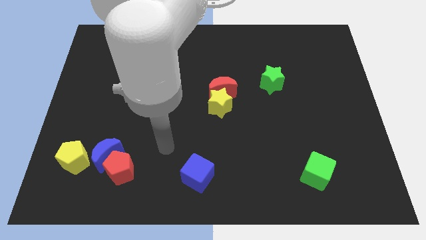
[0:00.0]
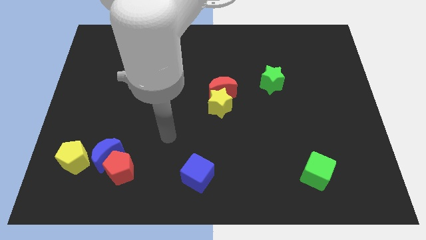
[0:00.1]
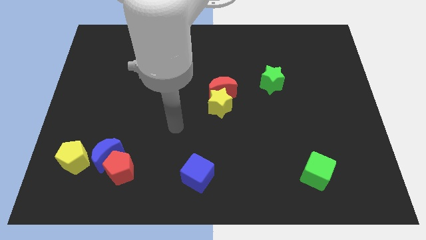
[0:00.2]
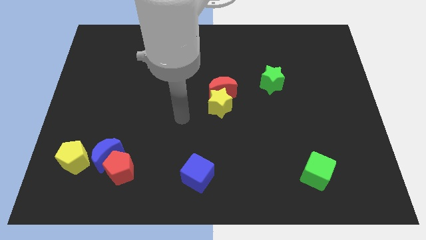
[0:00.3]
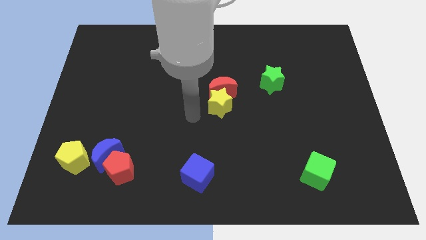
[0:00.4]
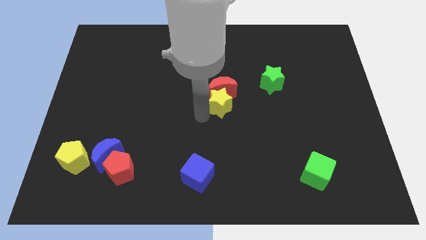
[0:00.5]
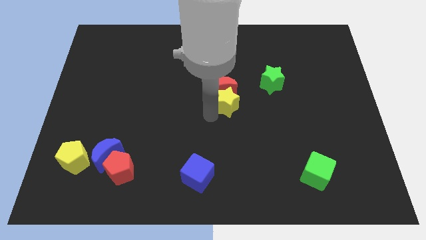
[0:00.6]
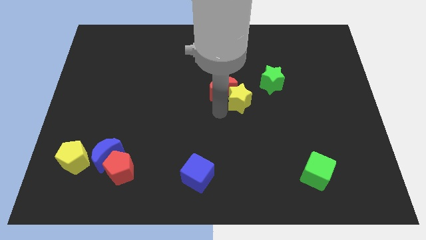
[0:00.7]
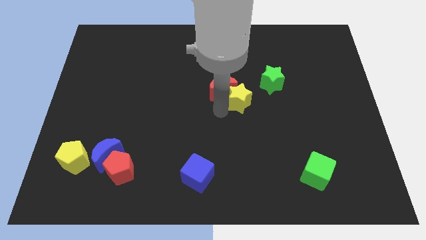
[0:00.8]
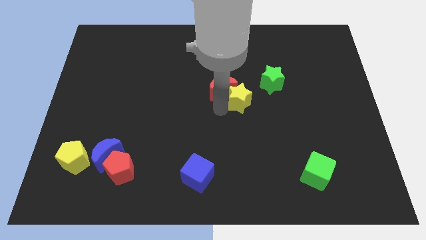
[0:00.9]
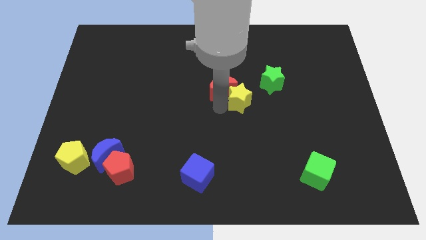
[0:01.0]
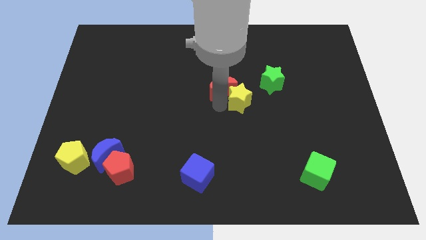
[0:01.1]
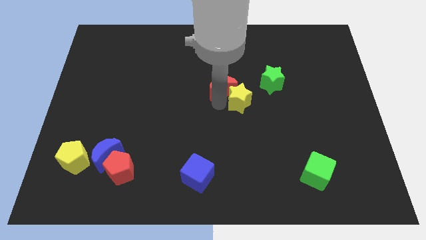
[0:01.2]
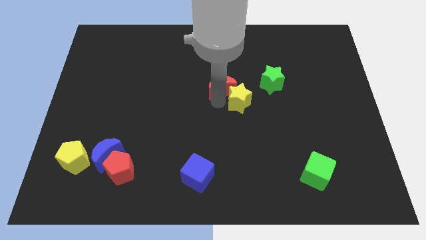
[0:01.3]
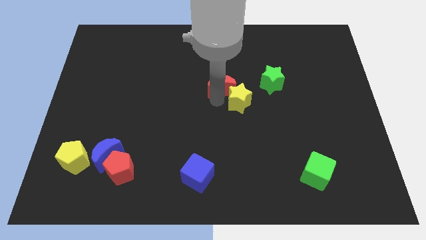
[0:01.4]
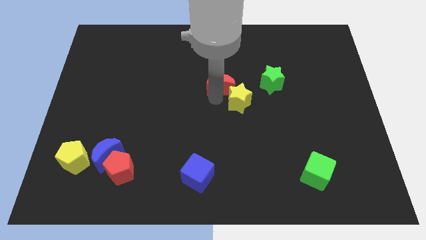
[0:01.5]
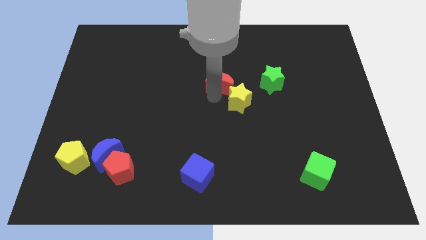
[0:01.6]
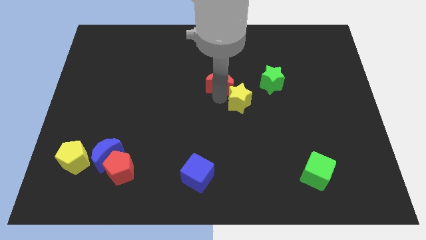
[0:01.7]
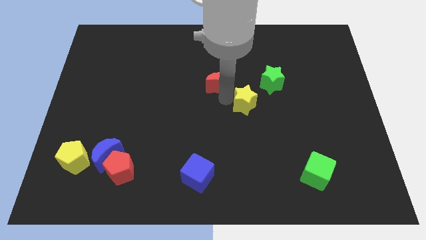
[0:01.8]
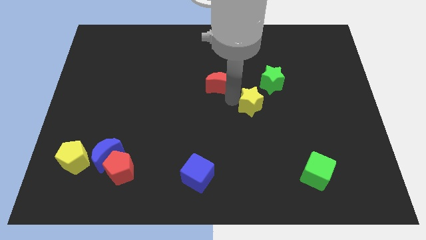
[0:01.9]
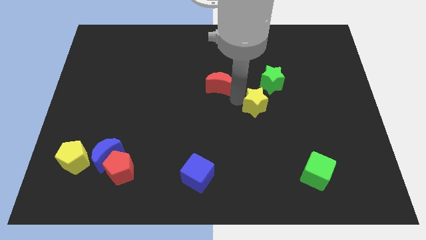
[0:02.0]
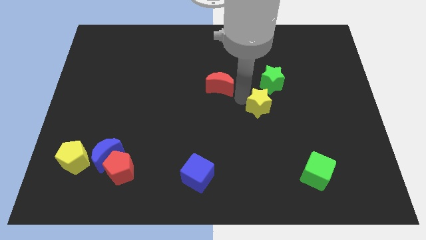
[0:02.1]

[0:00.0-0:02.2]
separate the red moon from the yellow star

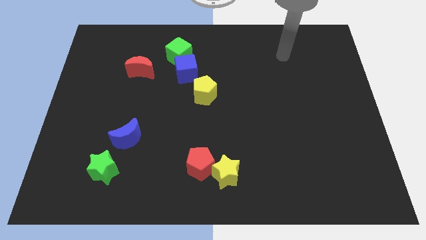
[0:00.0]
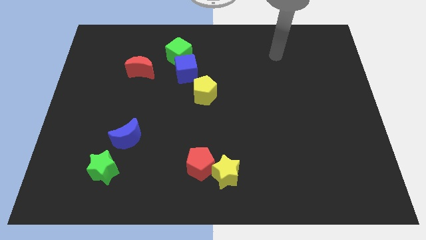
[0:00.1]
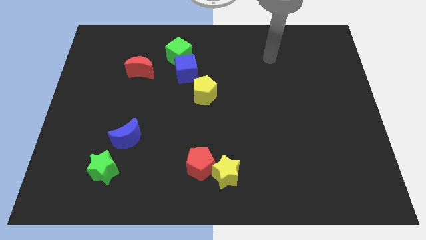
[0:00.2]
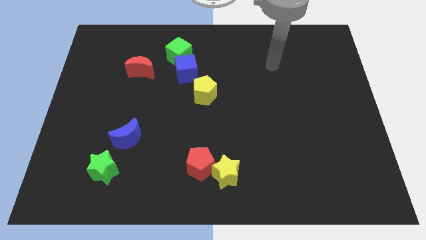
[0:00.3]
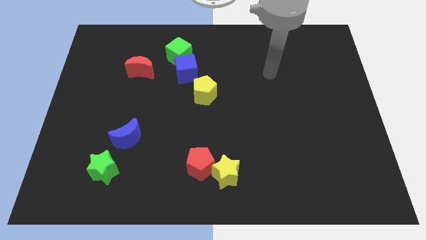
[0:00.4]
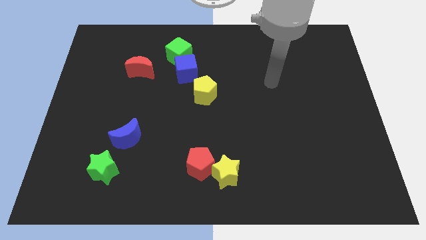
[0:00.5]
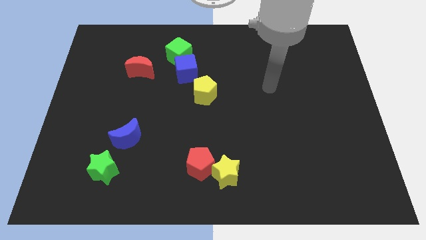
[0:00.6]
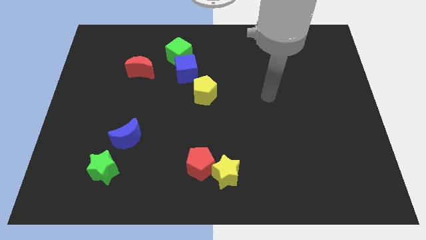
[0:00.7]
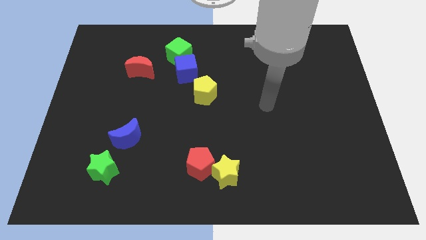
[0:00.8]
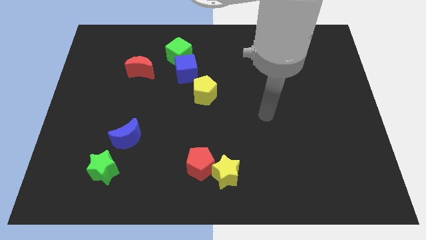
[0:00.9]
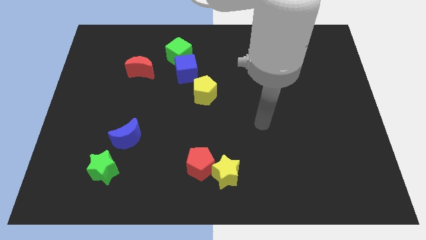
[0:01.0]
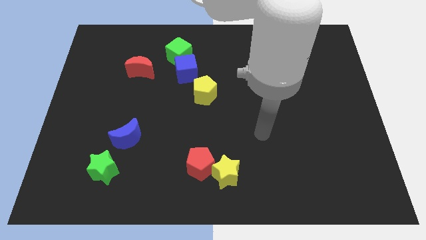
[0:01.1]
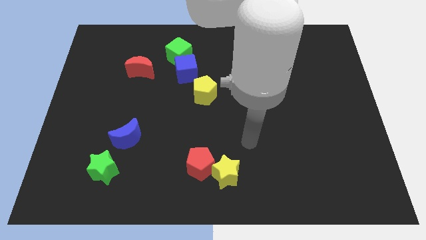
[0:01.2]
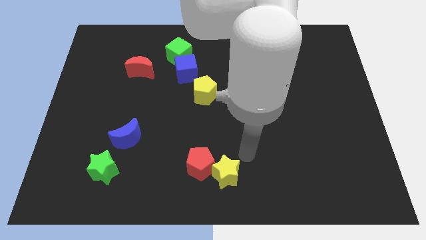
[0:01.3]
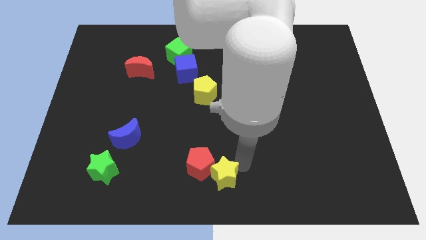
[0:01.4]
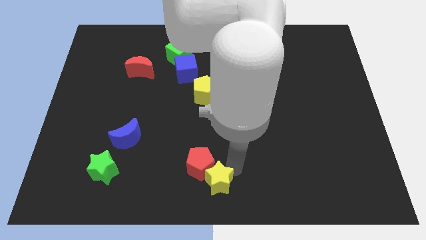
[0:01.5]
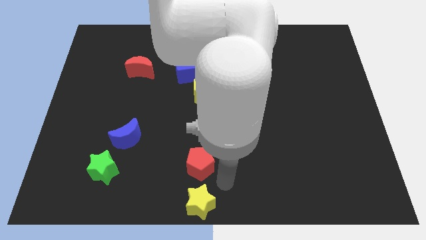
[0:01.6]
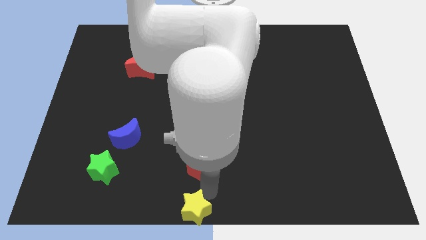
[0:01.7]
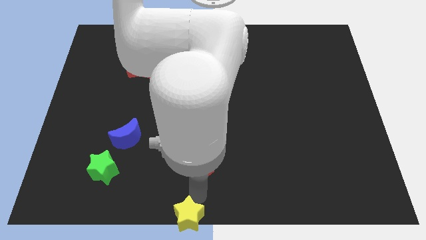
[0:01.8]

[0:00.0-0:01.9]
separate the red pentagon from the yellow star

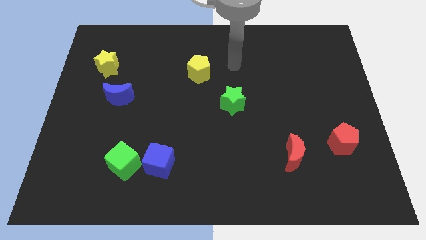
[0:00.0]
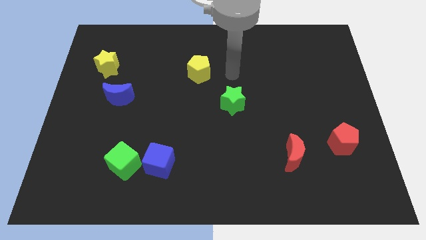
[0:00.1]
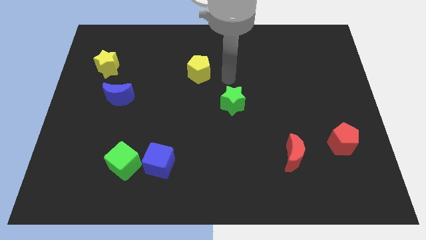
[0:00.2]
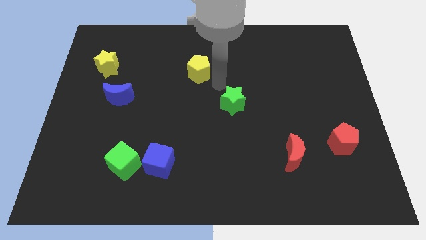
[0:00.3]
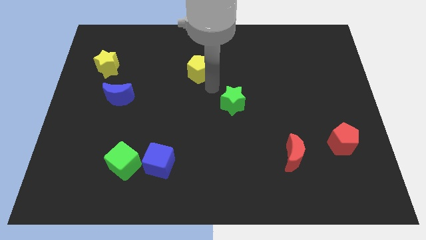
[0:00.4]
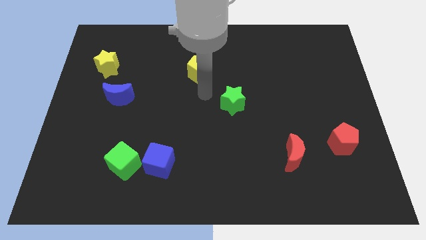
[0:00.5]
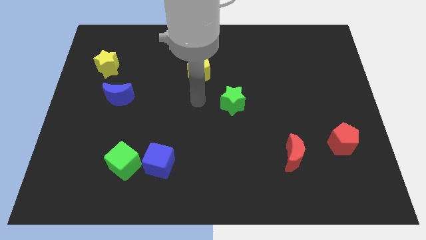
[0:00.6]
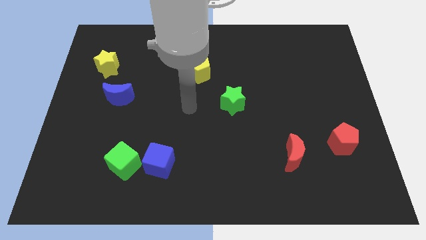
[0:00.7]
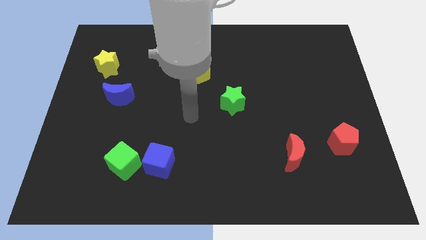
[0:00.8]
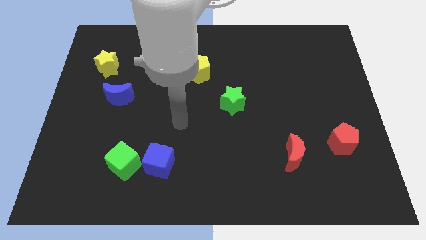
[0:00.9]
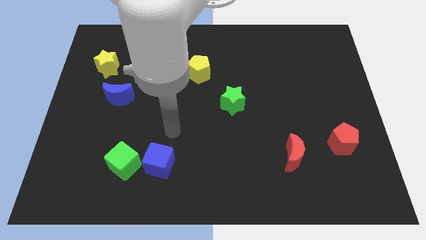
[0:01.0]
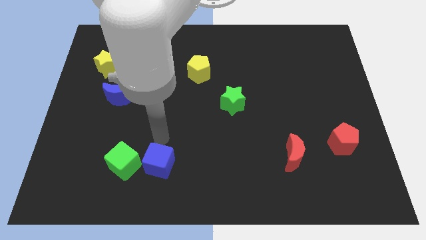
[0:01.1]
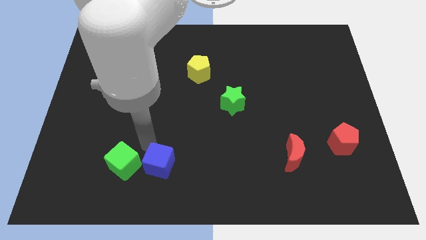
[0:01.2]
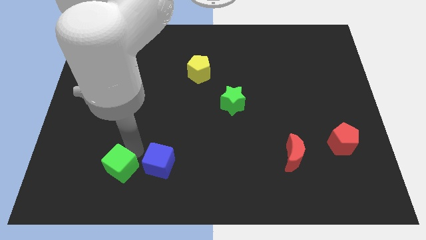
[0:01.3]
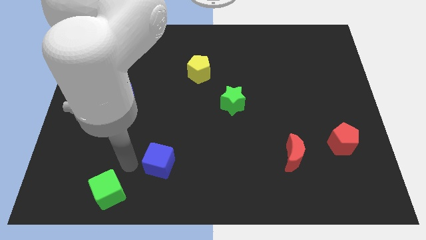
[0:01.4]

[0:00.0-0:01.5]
move the blue cube away from the green cube

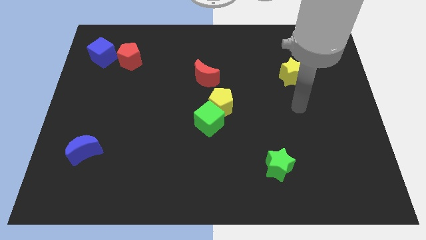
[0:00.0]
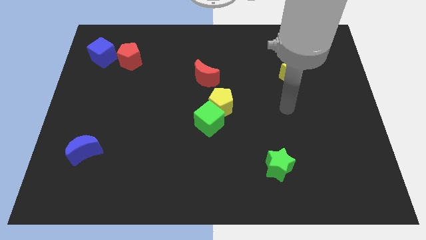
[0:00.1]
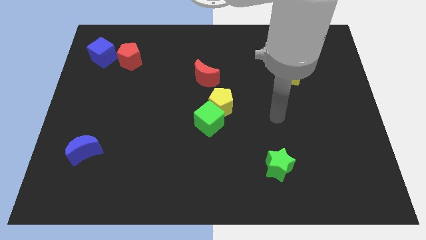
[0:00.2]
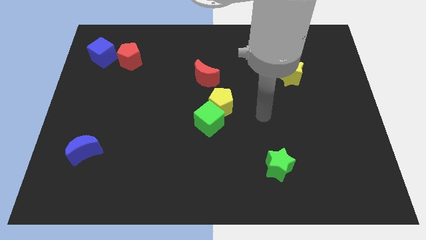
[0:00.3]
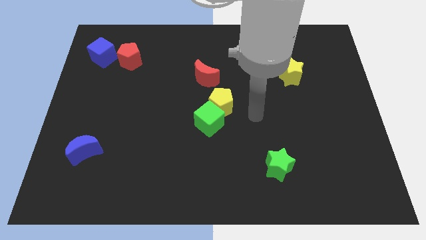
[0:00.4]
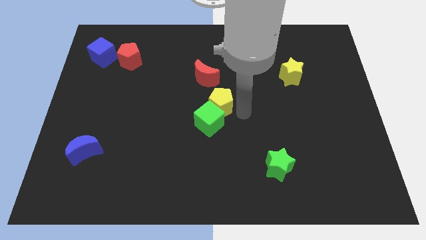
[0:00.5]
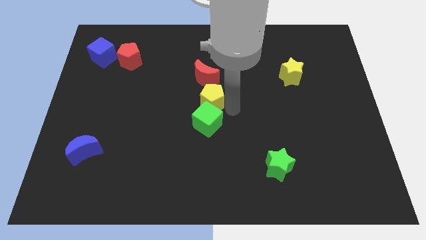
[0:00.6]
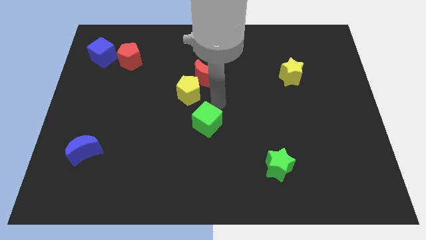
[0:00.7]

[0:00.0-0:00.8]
separate the green cube from the yellow pentagon

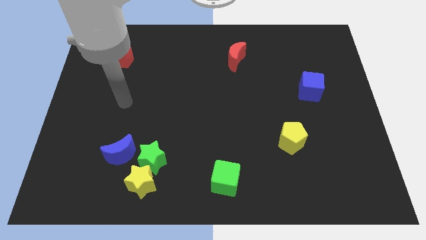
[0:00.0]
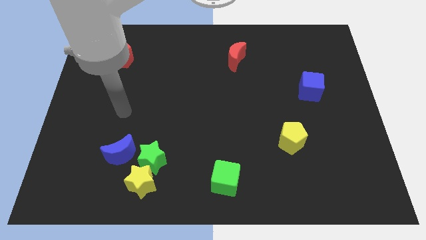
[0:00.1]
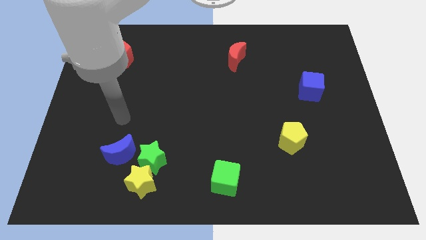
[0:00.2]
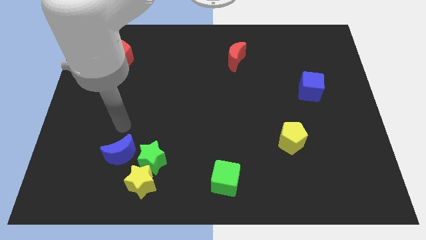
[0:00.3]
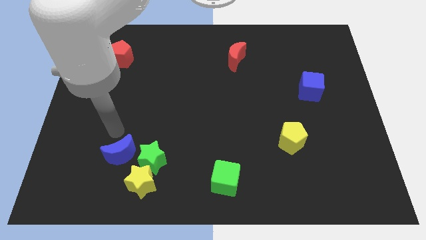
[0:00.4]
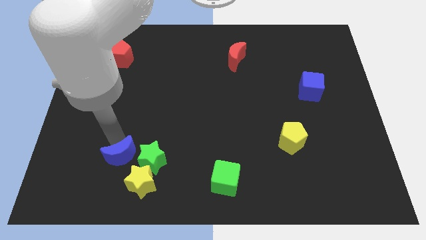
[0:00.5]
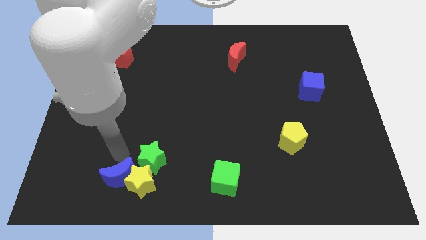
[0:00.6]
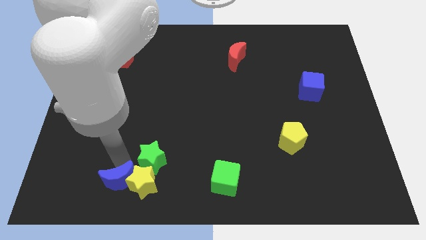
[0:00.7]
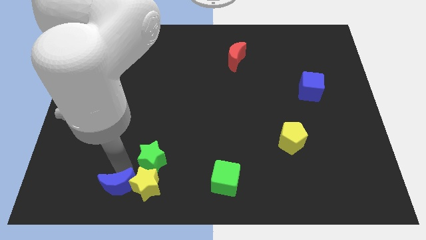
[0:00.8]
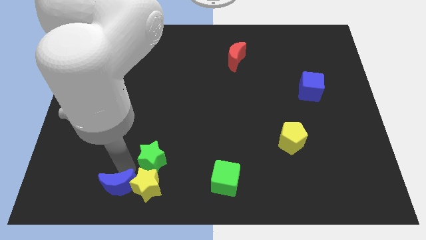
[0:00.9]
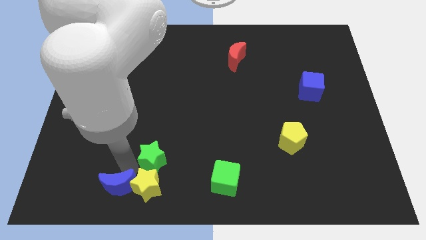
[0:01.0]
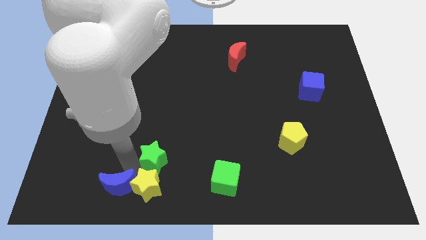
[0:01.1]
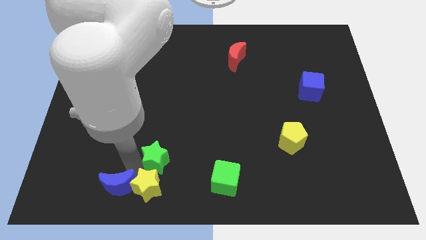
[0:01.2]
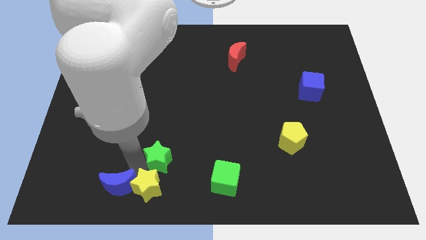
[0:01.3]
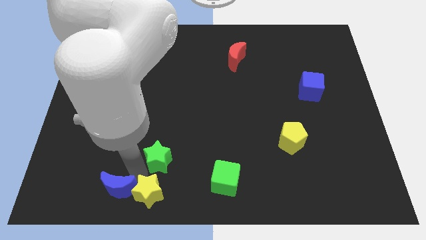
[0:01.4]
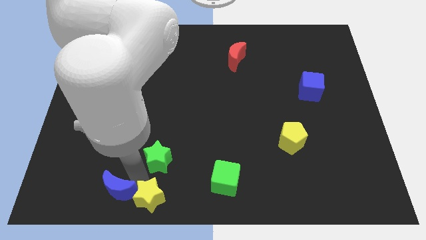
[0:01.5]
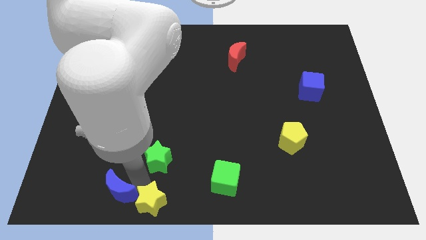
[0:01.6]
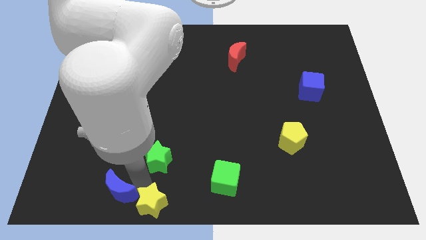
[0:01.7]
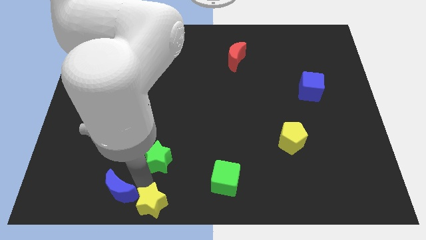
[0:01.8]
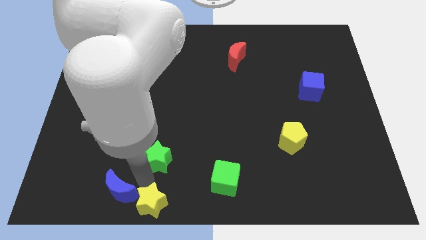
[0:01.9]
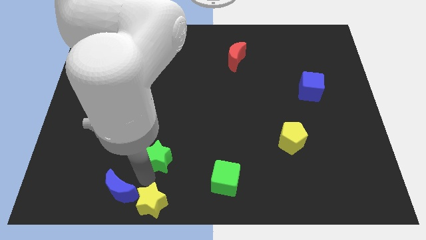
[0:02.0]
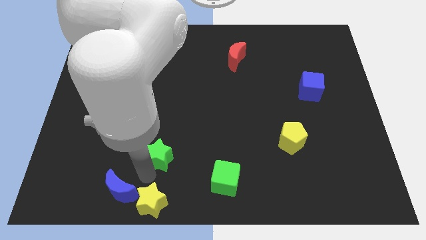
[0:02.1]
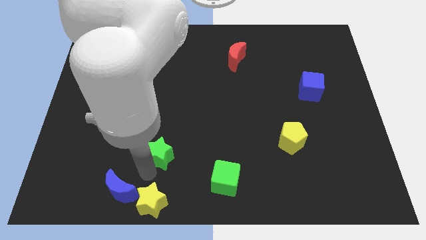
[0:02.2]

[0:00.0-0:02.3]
move the green star away from the yellow star and blue moon

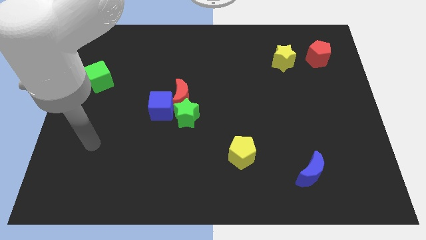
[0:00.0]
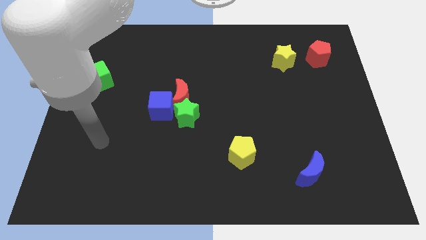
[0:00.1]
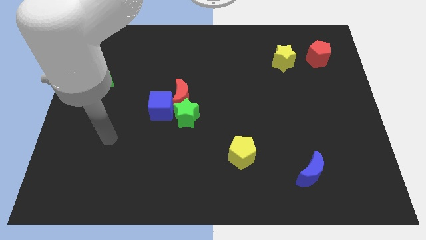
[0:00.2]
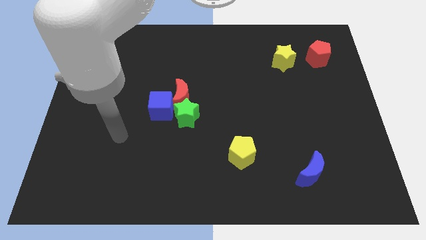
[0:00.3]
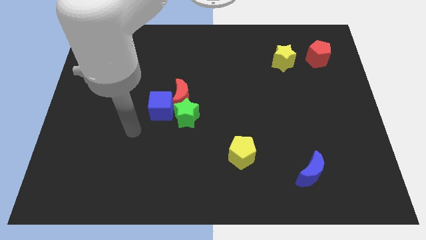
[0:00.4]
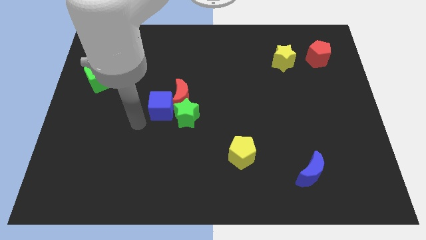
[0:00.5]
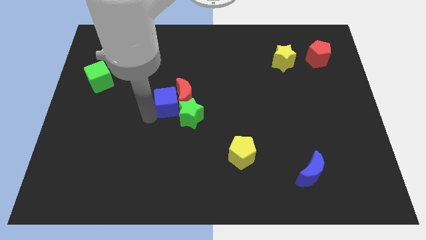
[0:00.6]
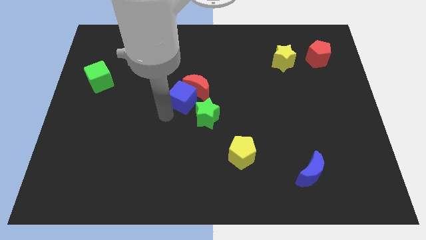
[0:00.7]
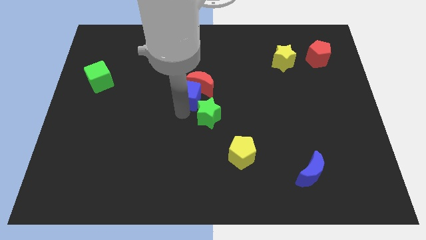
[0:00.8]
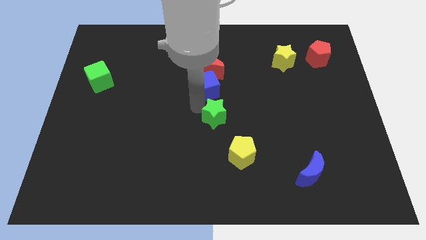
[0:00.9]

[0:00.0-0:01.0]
separate the red moon from the green star and blue cube
